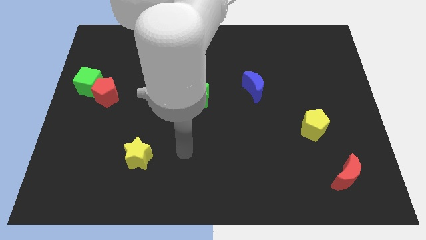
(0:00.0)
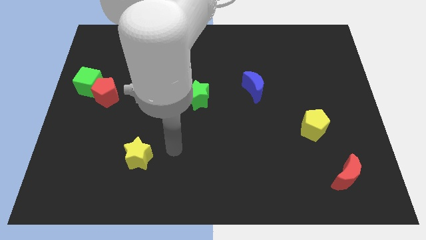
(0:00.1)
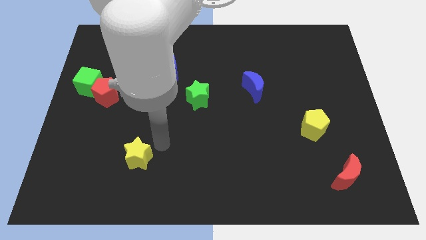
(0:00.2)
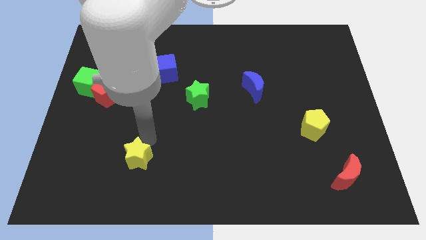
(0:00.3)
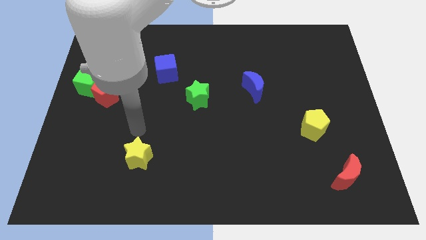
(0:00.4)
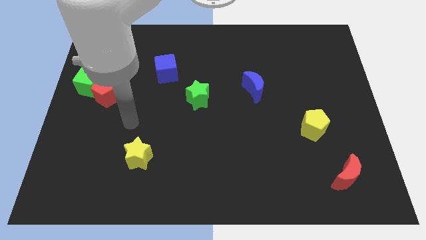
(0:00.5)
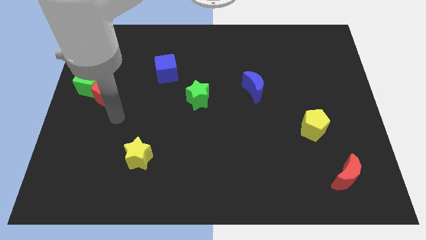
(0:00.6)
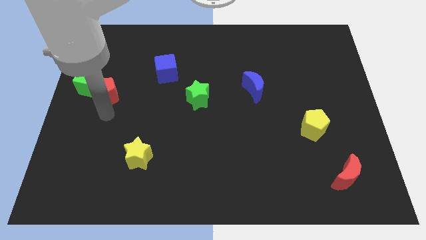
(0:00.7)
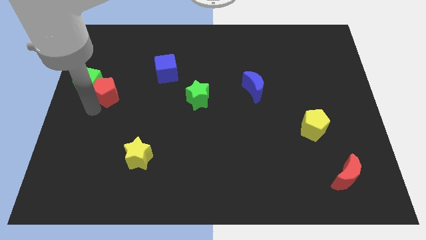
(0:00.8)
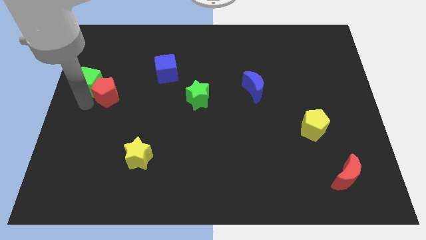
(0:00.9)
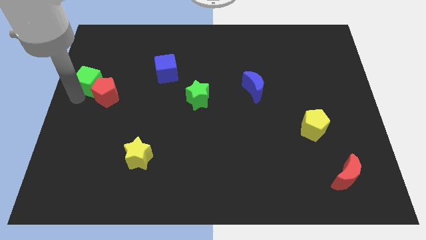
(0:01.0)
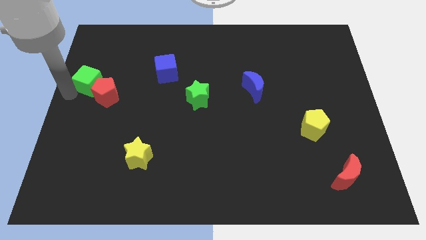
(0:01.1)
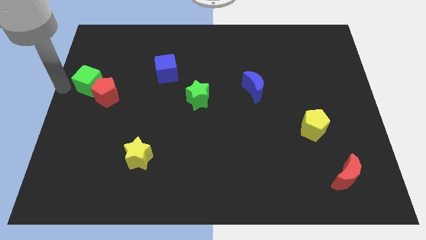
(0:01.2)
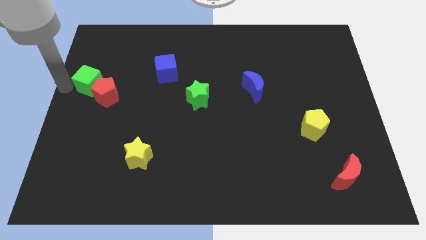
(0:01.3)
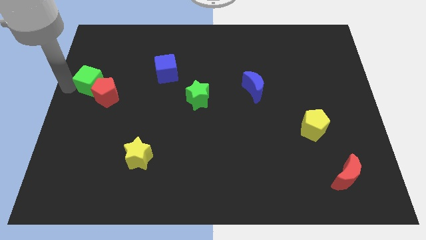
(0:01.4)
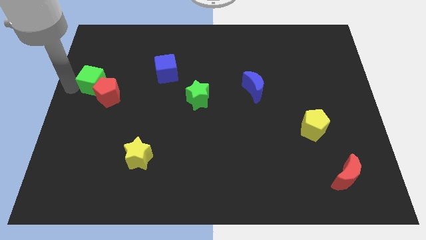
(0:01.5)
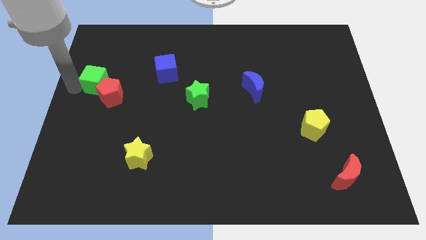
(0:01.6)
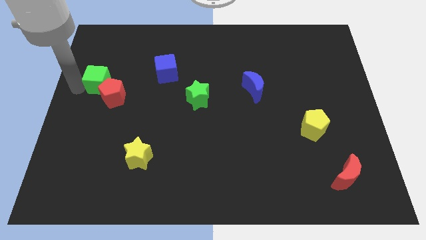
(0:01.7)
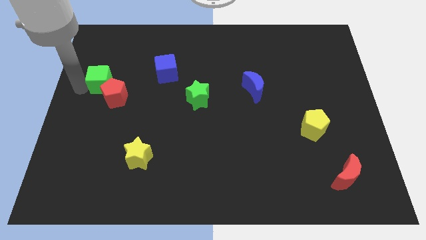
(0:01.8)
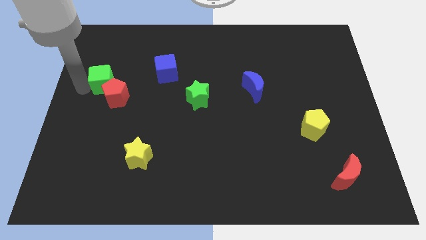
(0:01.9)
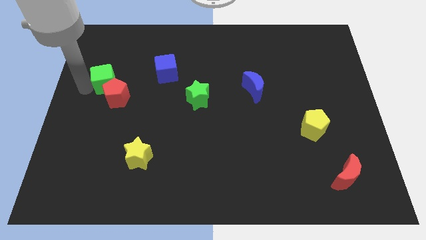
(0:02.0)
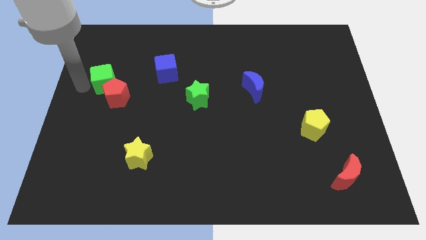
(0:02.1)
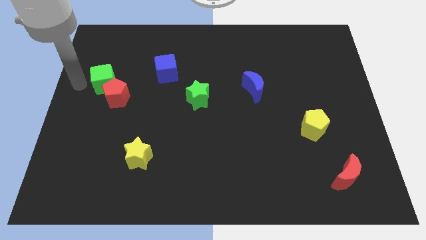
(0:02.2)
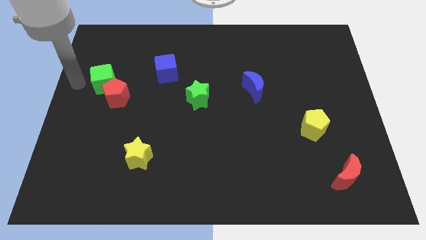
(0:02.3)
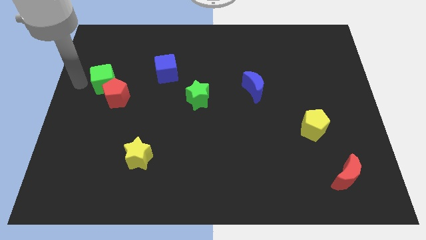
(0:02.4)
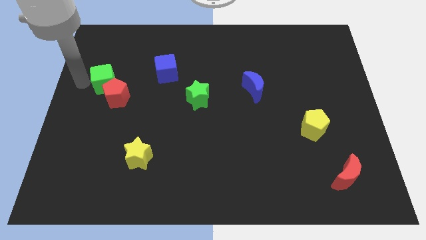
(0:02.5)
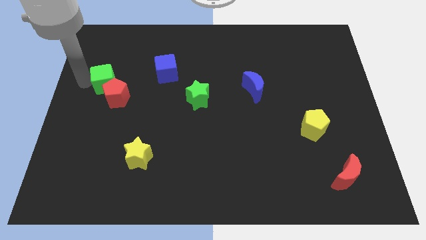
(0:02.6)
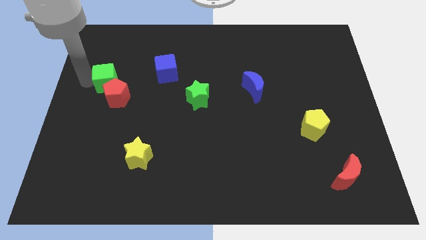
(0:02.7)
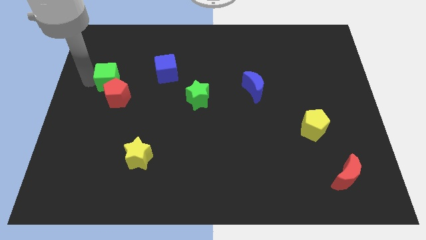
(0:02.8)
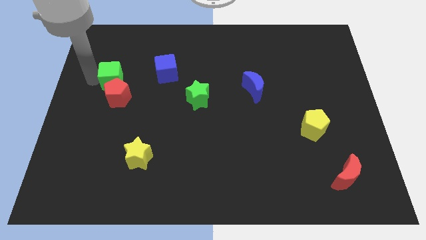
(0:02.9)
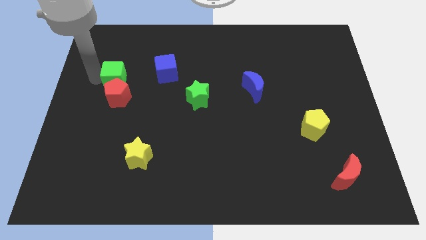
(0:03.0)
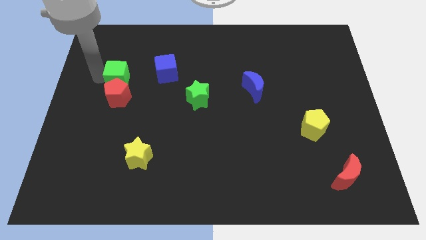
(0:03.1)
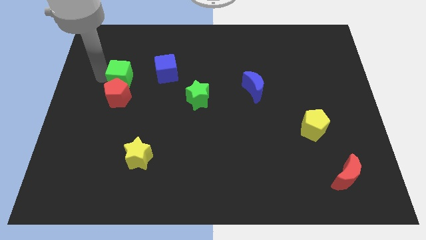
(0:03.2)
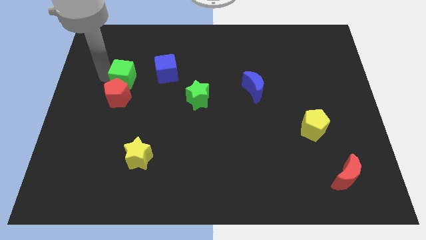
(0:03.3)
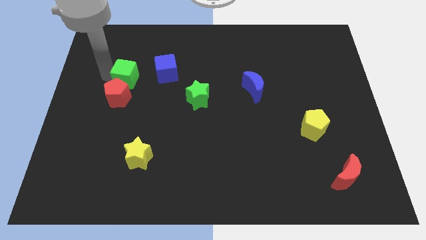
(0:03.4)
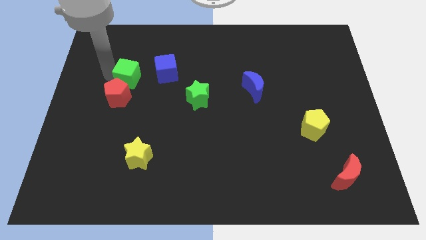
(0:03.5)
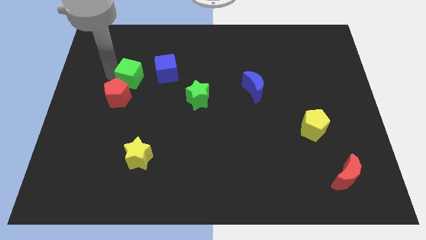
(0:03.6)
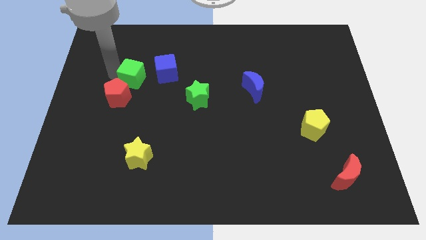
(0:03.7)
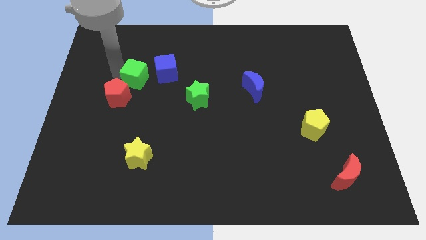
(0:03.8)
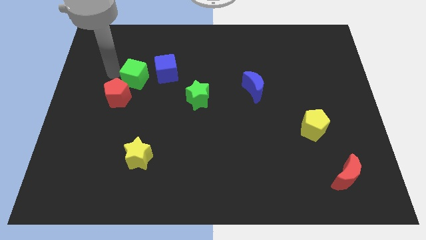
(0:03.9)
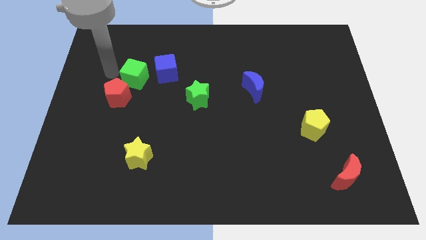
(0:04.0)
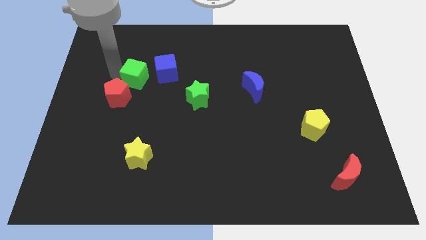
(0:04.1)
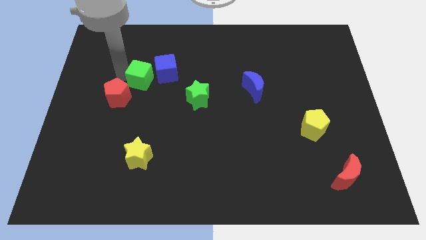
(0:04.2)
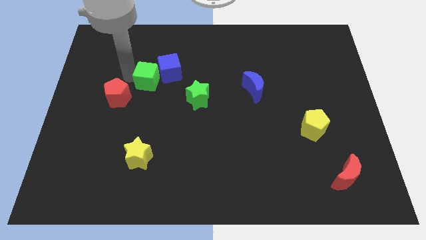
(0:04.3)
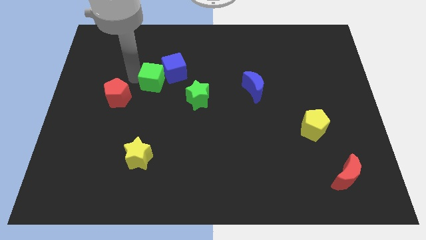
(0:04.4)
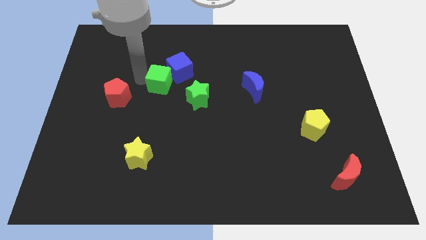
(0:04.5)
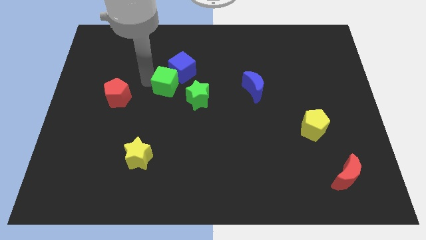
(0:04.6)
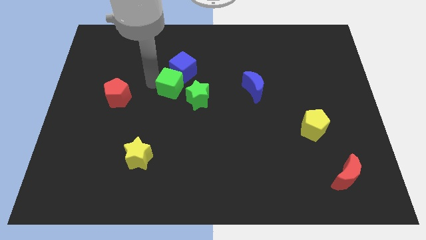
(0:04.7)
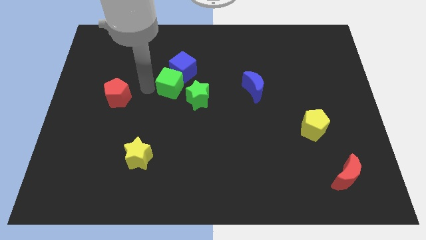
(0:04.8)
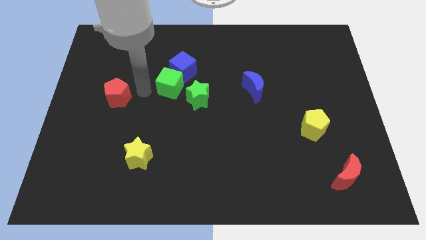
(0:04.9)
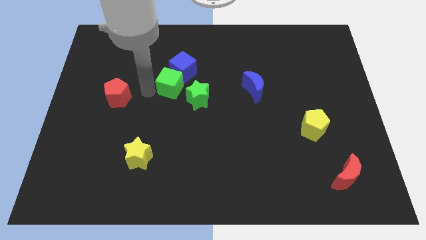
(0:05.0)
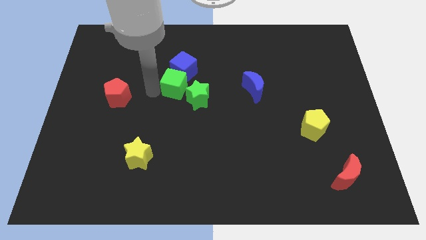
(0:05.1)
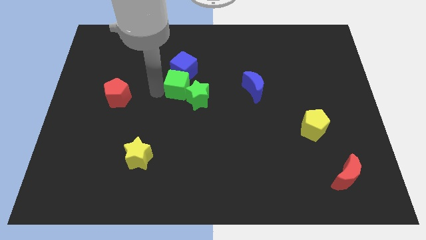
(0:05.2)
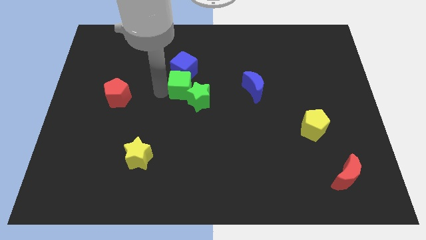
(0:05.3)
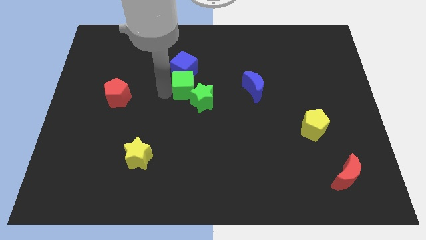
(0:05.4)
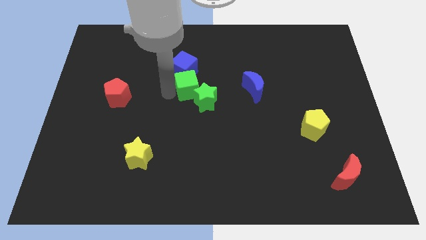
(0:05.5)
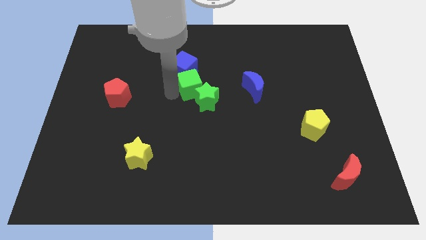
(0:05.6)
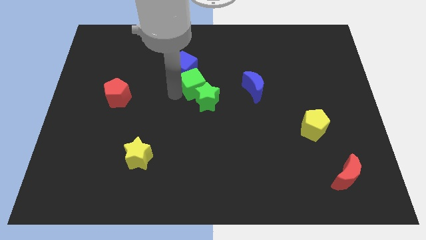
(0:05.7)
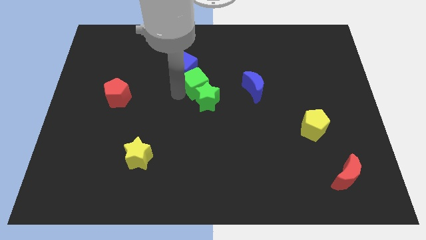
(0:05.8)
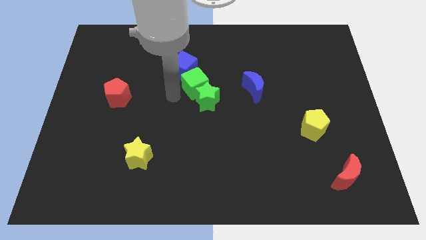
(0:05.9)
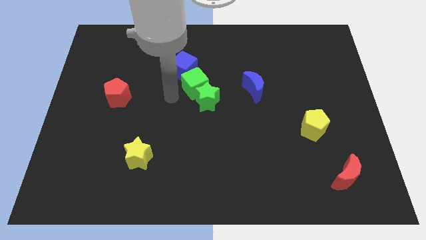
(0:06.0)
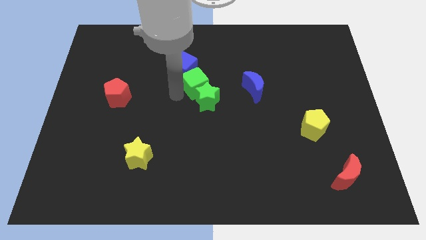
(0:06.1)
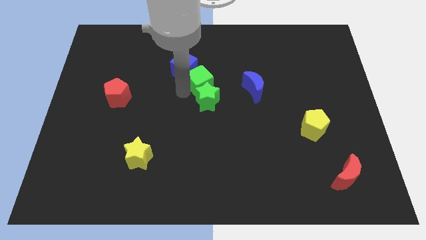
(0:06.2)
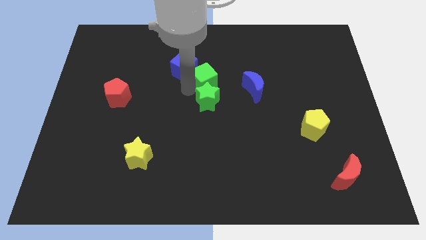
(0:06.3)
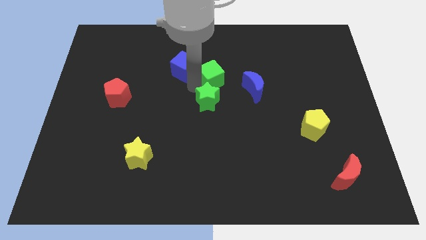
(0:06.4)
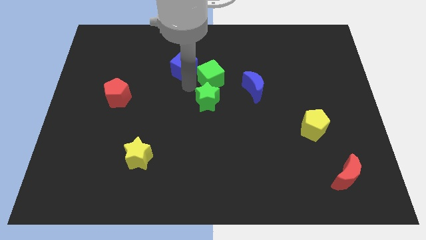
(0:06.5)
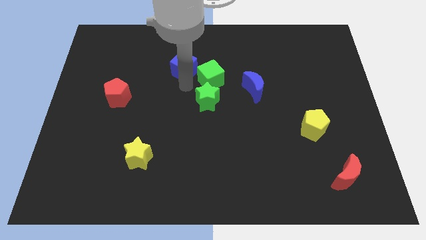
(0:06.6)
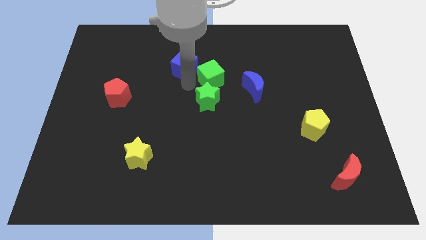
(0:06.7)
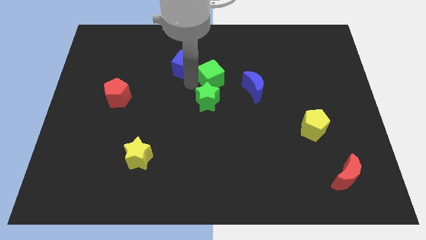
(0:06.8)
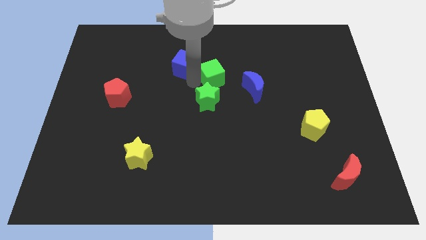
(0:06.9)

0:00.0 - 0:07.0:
move the green cube to the top left side of the blue moon

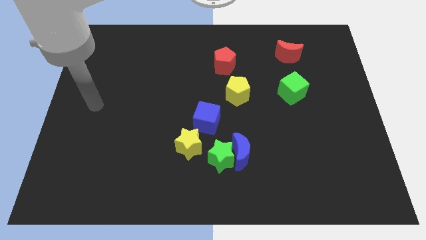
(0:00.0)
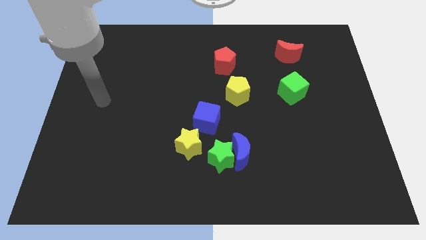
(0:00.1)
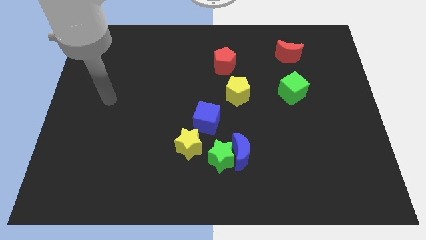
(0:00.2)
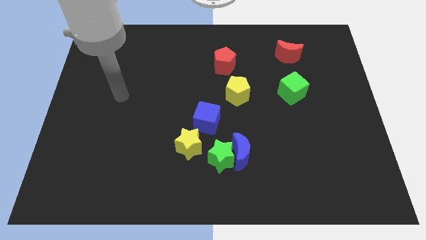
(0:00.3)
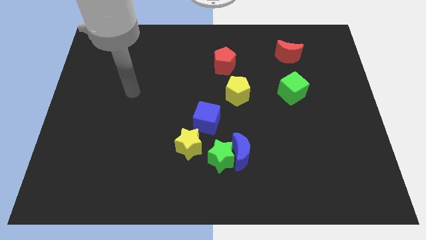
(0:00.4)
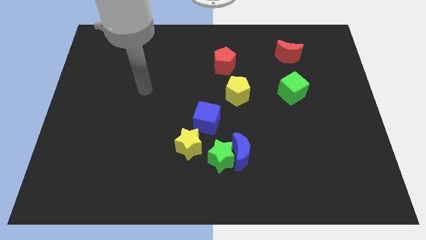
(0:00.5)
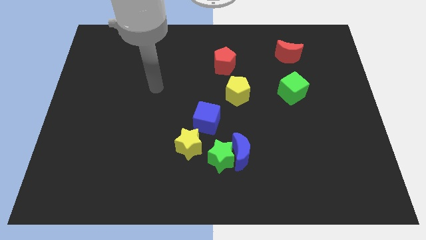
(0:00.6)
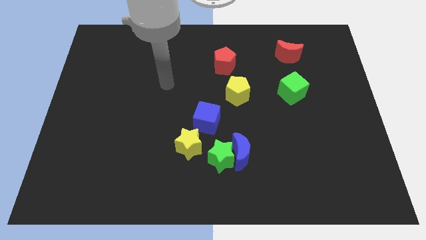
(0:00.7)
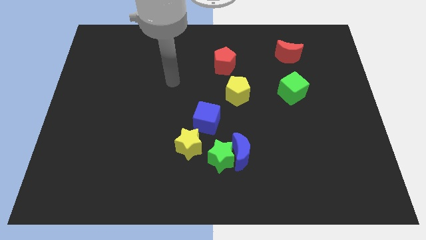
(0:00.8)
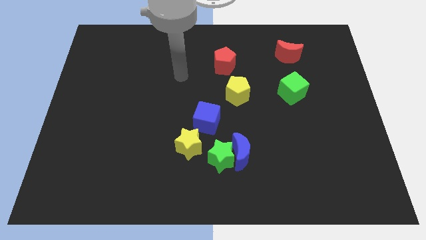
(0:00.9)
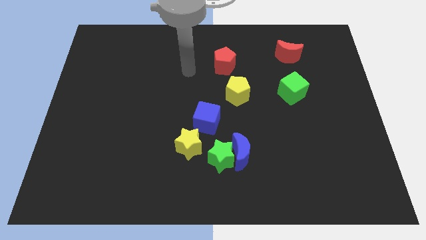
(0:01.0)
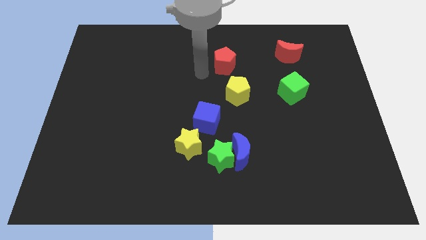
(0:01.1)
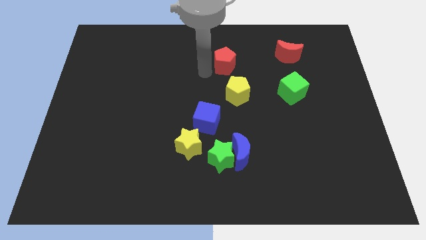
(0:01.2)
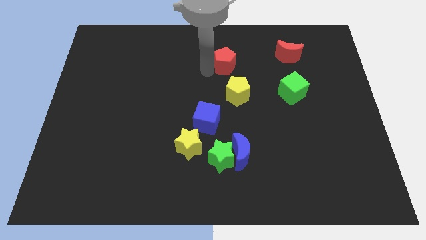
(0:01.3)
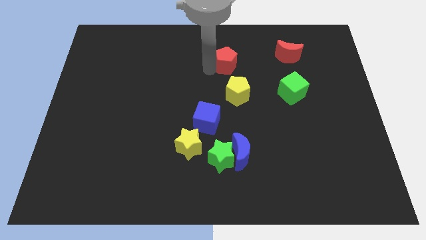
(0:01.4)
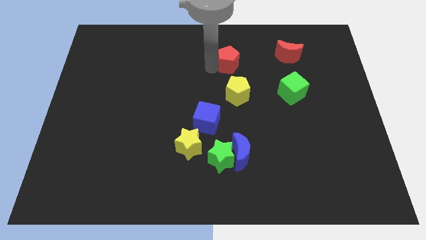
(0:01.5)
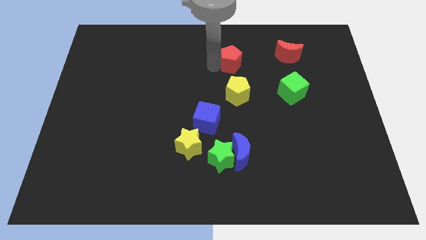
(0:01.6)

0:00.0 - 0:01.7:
slide the red pentagon to the left side of the red moon
